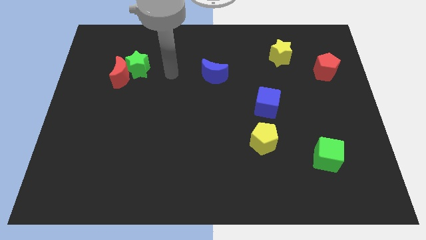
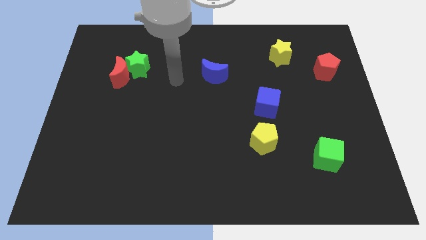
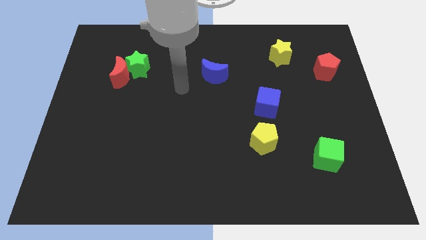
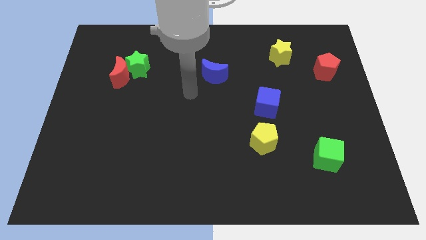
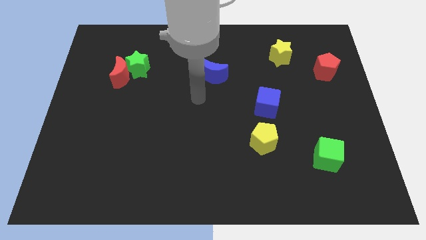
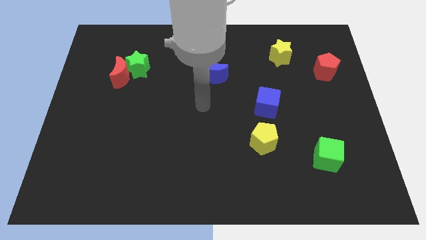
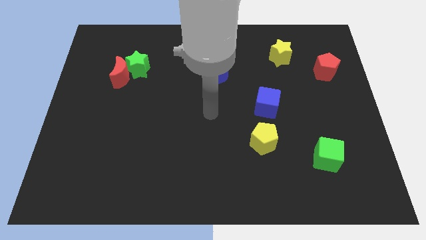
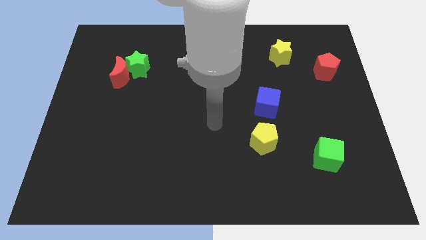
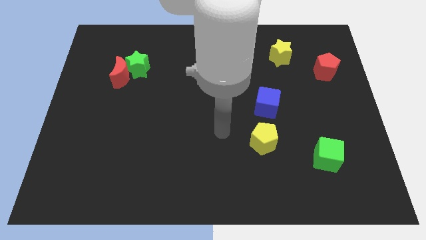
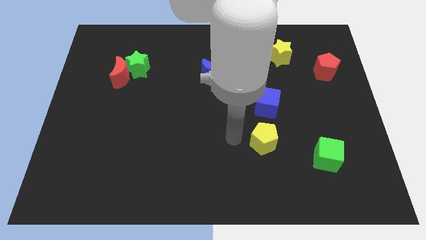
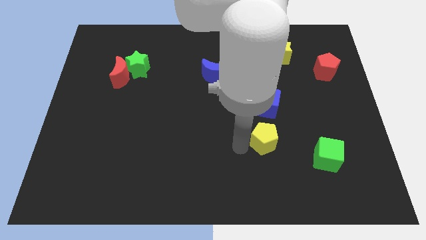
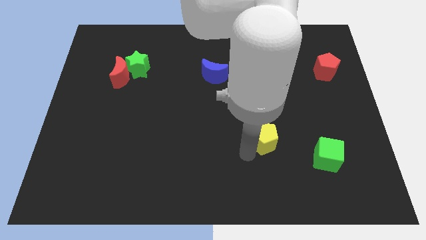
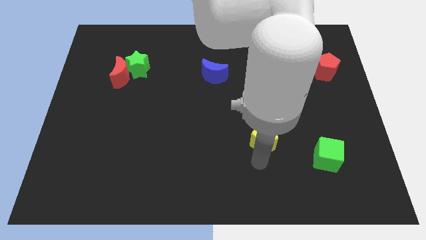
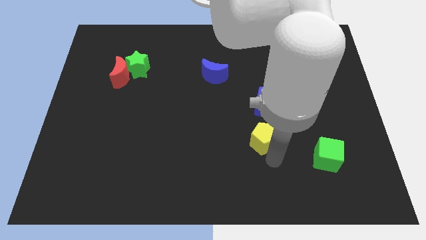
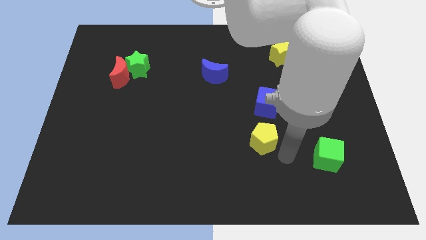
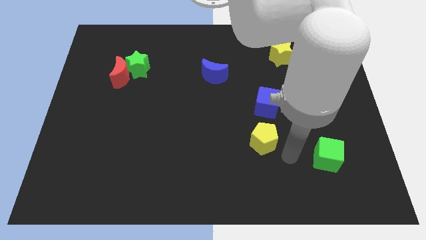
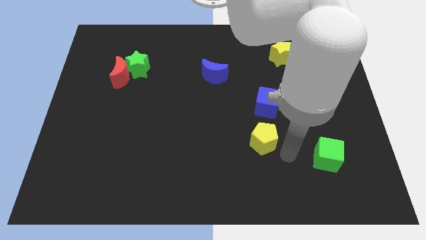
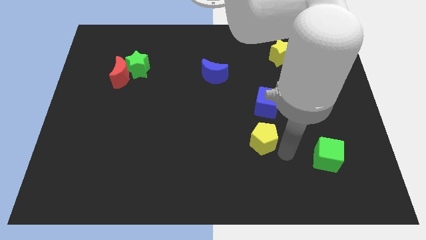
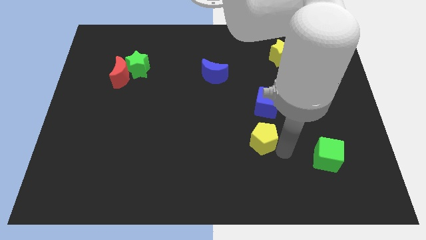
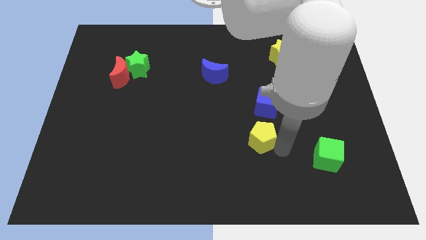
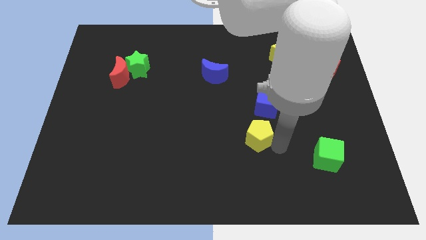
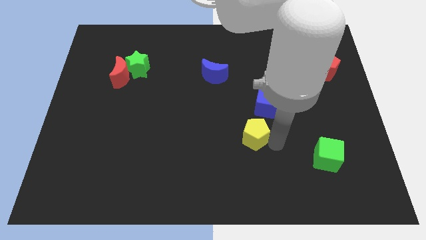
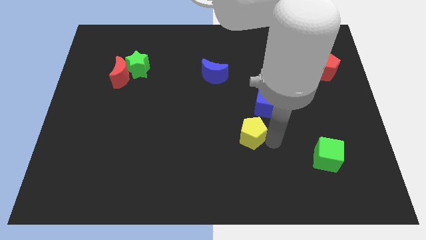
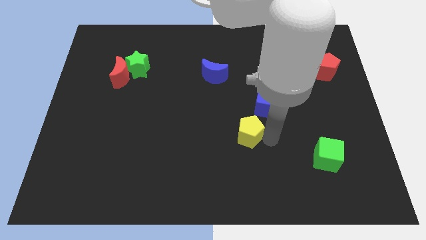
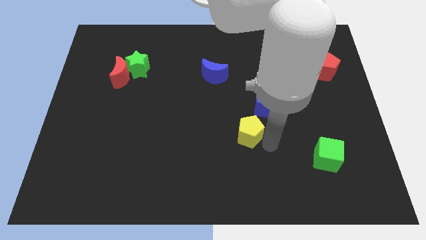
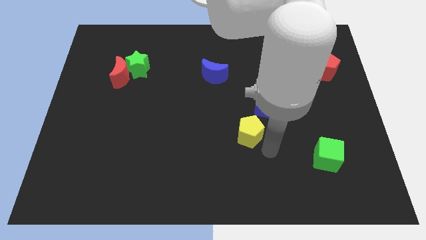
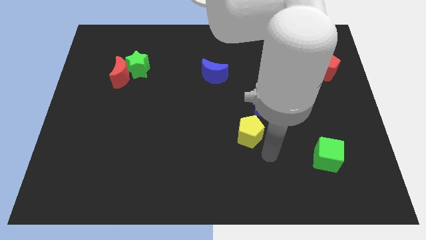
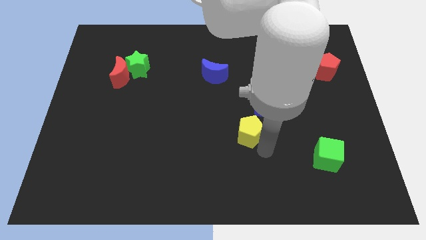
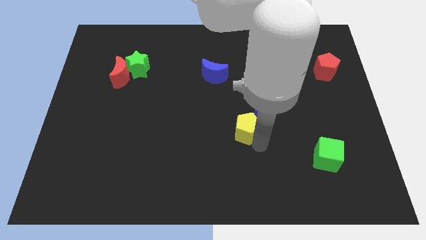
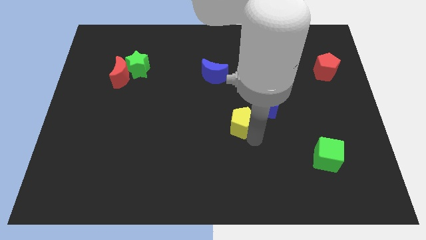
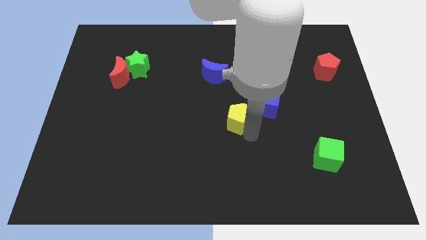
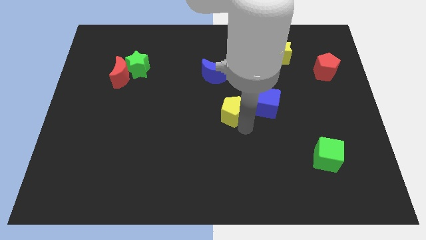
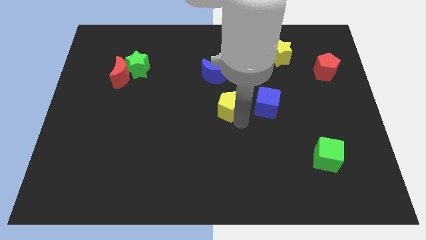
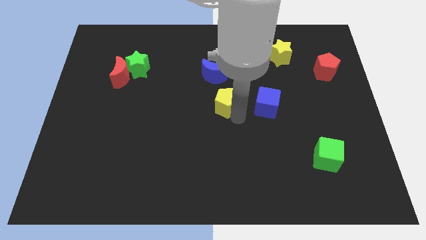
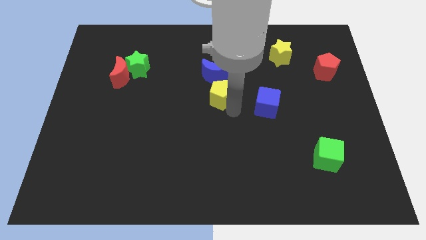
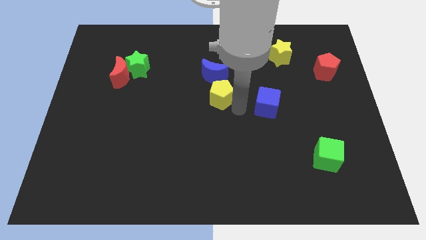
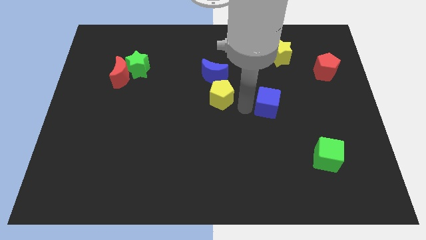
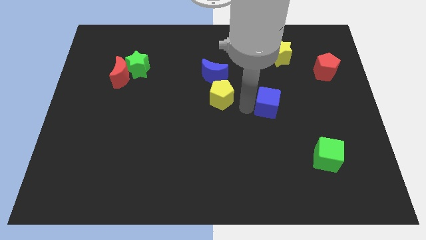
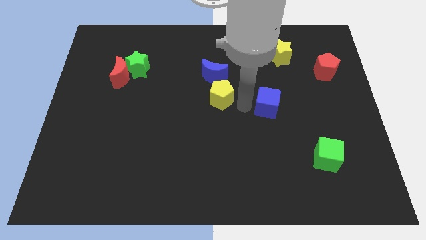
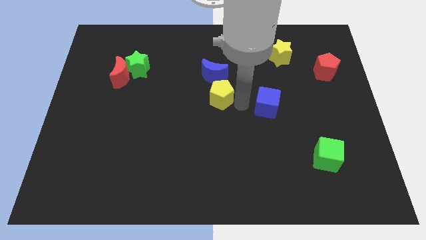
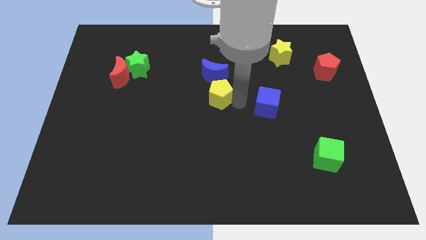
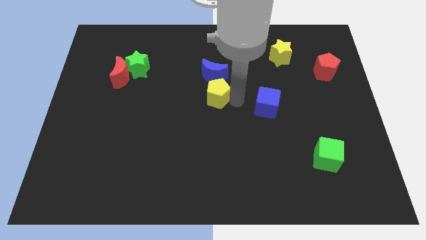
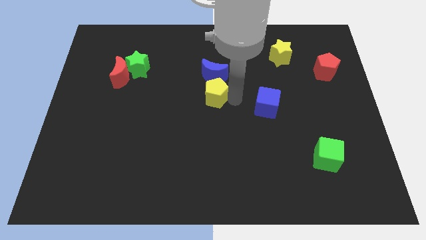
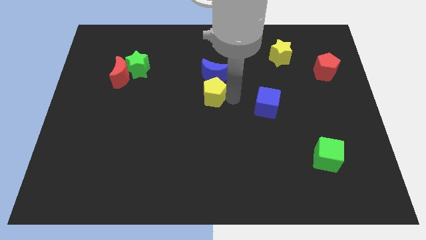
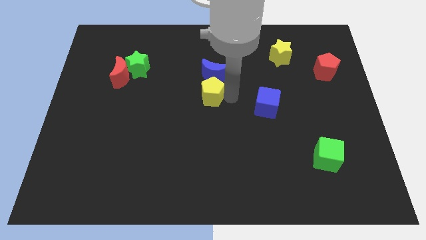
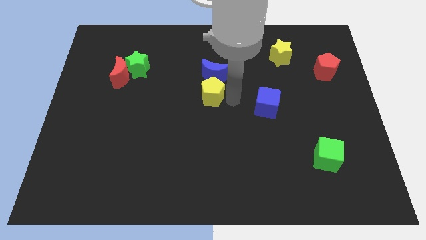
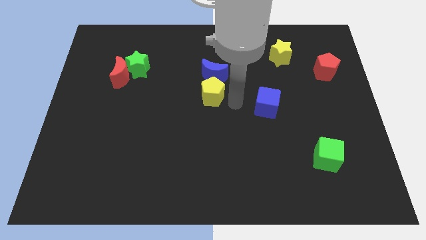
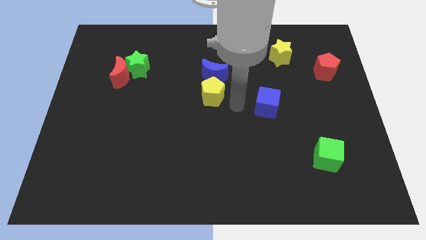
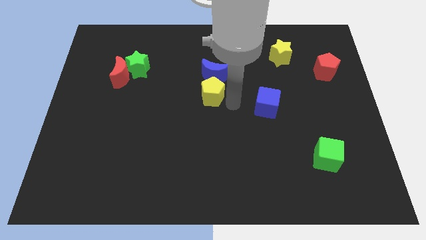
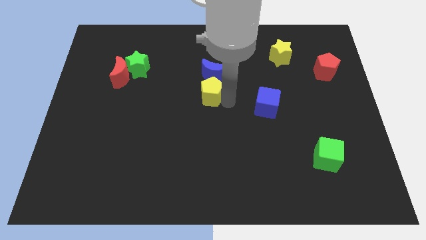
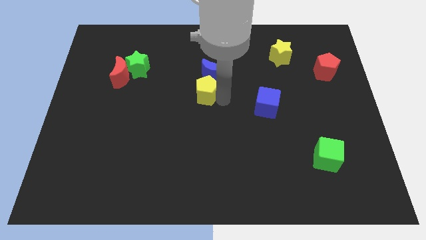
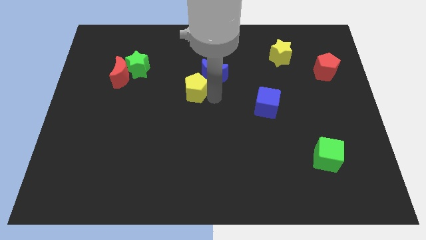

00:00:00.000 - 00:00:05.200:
push the yellow pentagon up and to the left diagonally

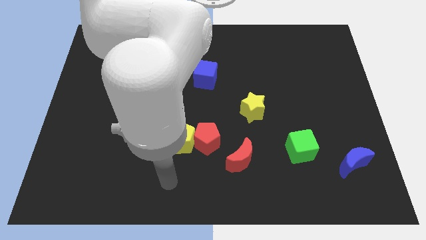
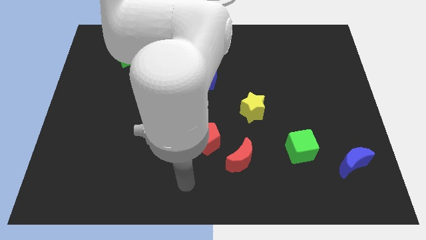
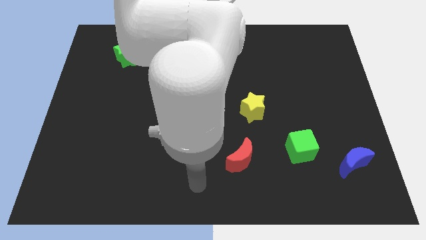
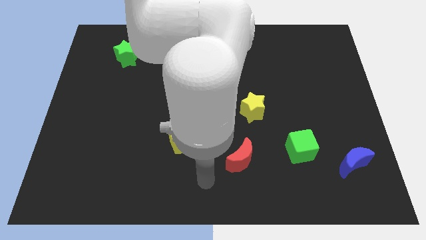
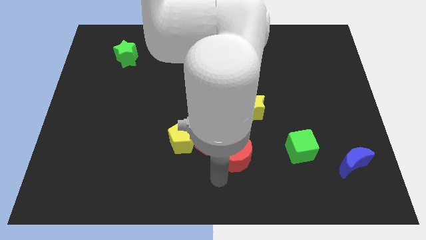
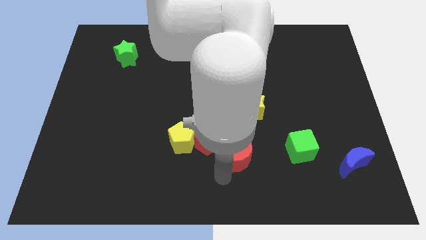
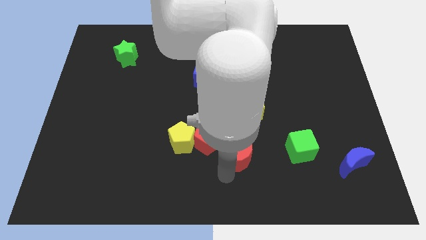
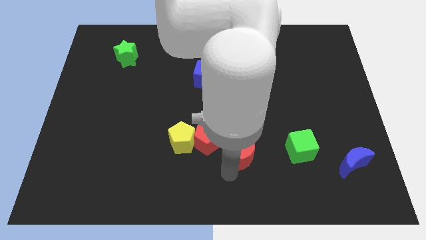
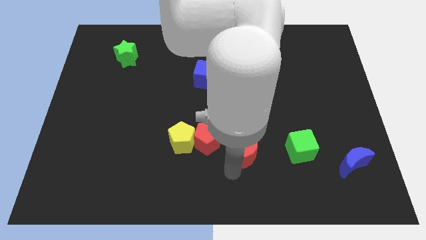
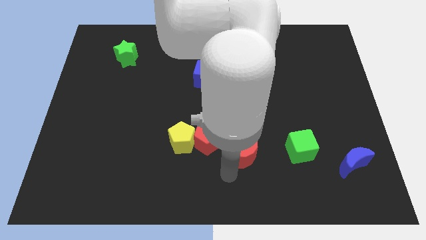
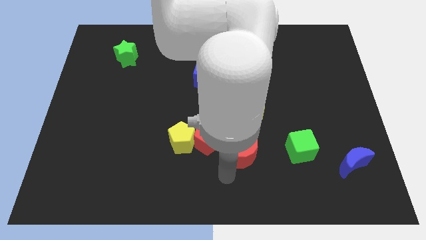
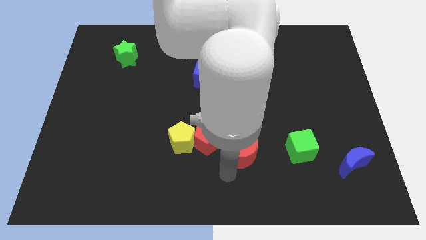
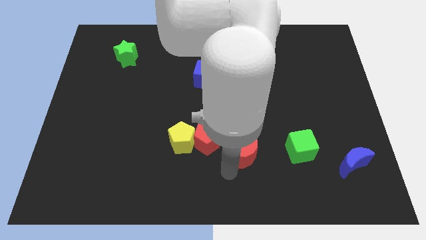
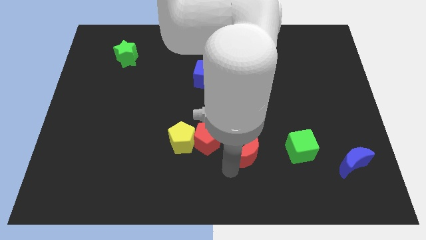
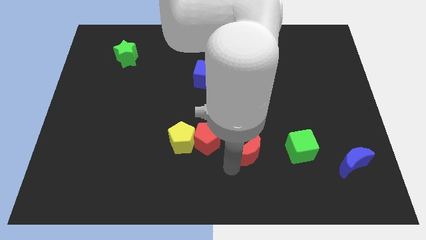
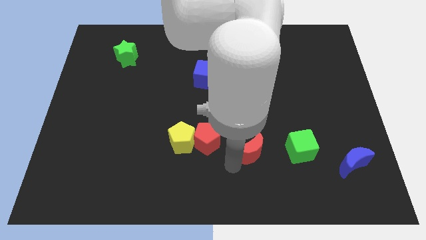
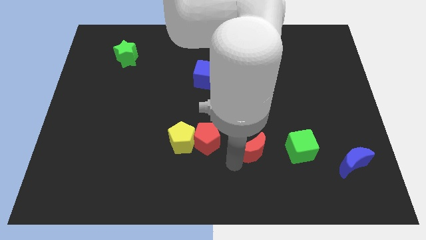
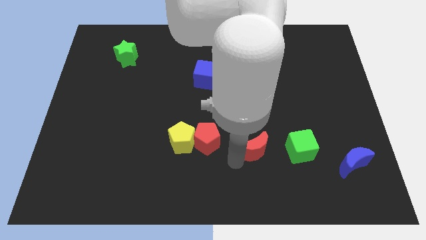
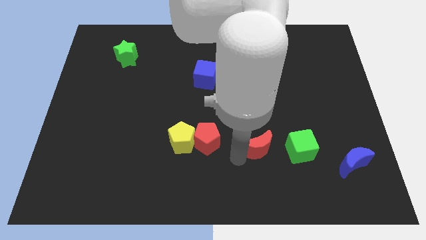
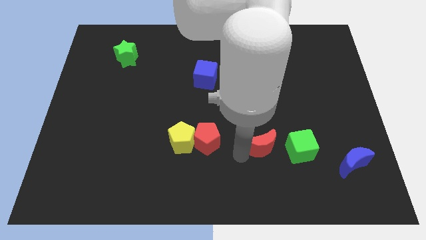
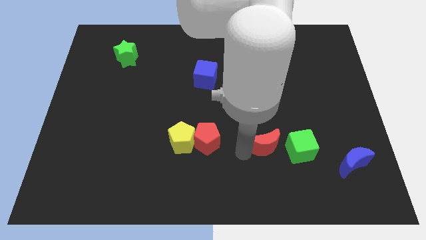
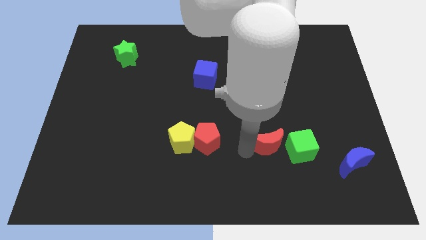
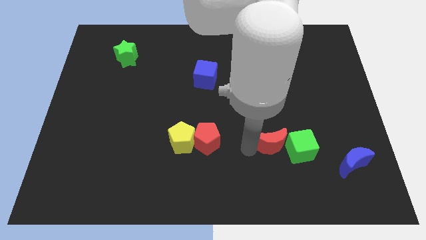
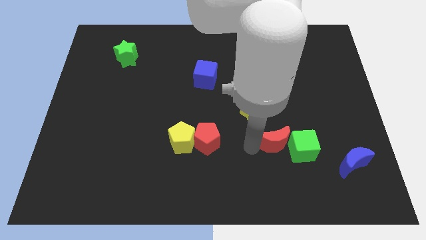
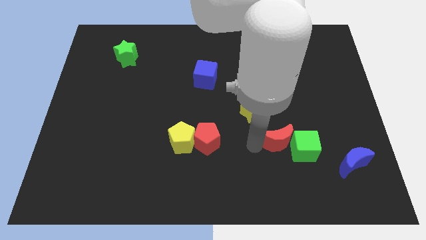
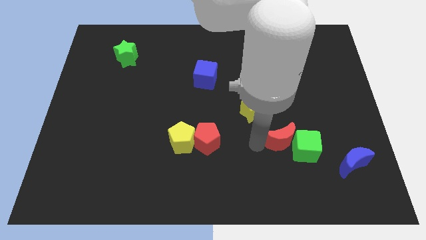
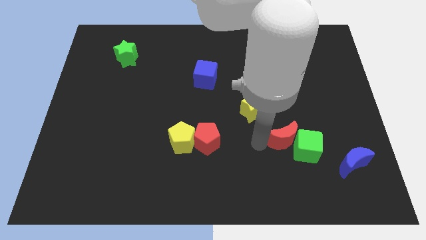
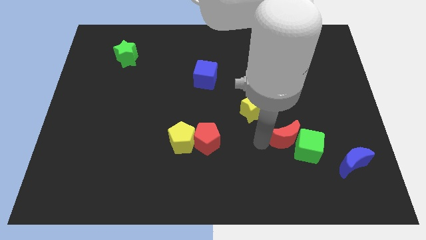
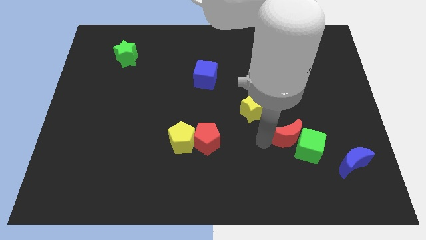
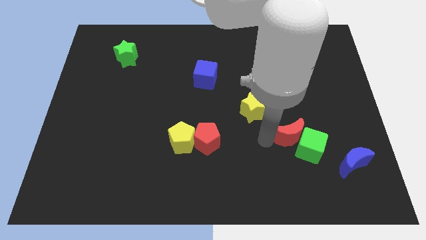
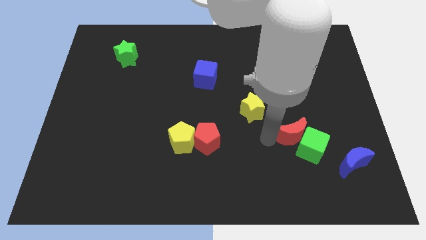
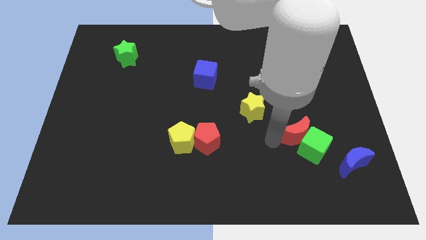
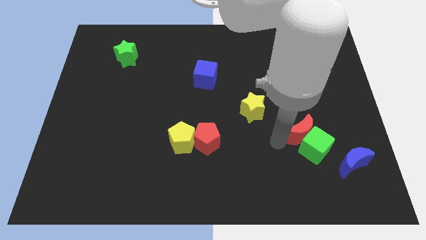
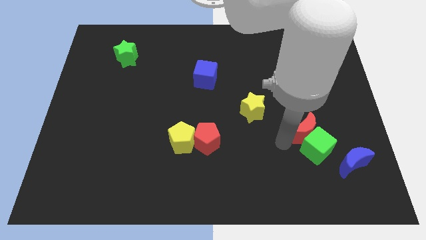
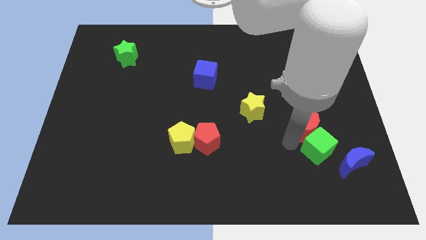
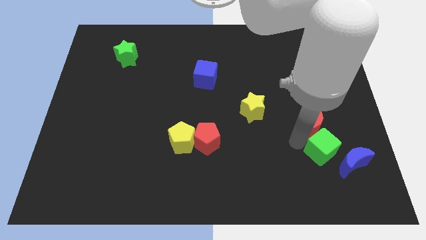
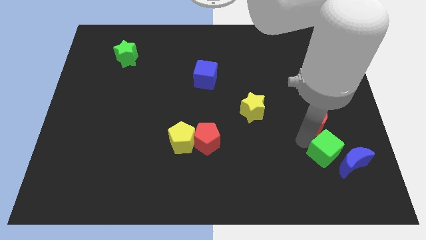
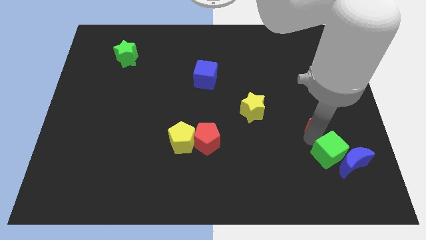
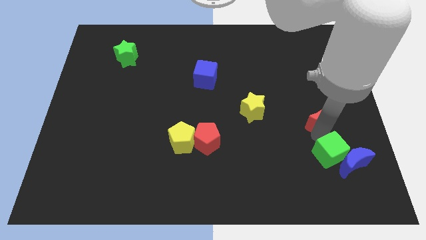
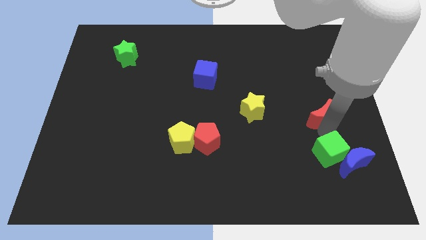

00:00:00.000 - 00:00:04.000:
slide the red moon up and then to the right
